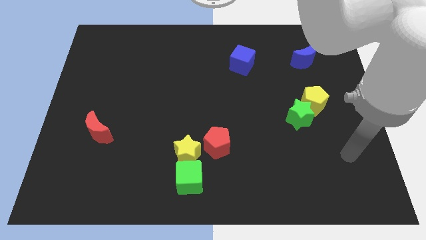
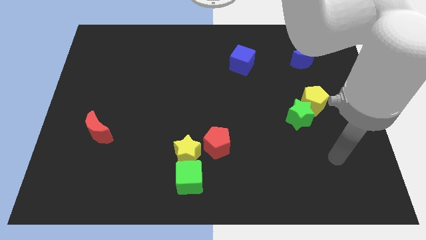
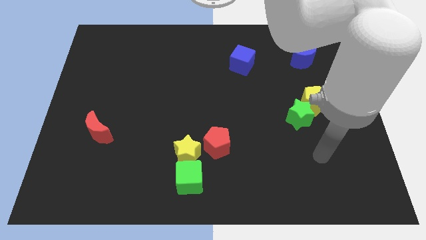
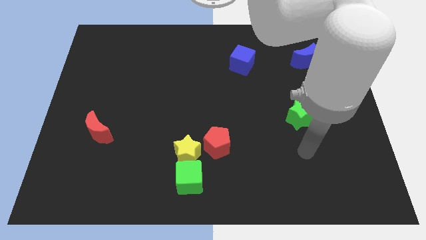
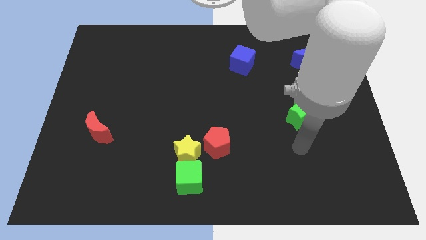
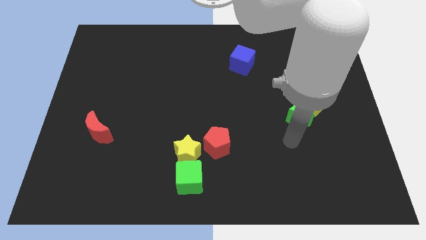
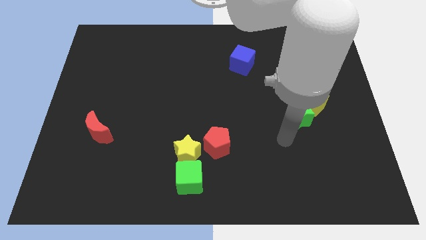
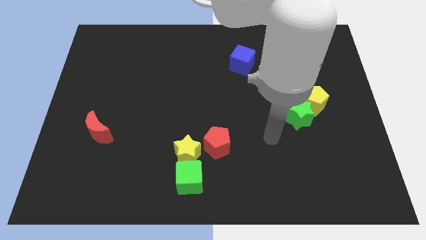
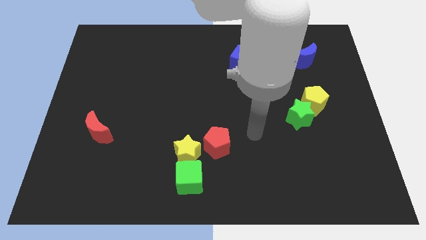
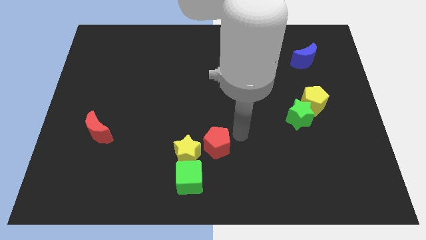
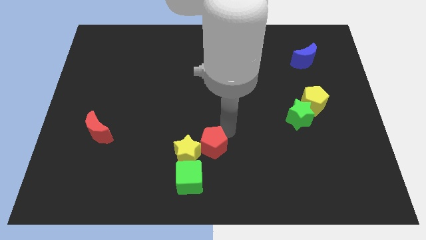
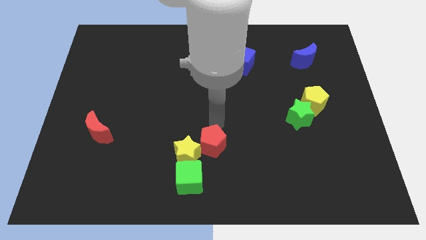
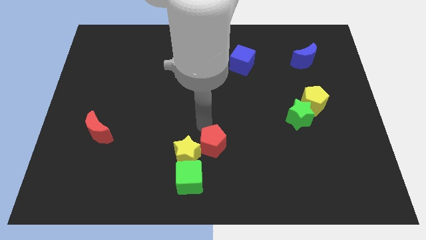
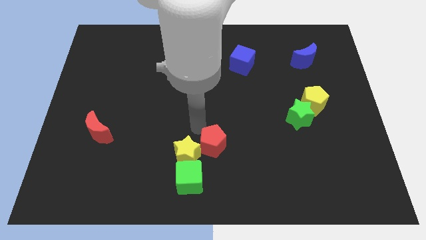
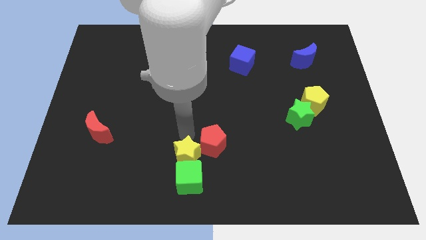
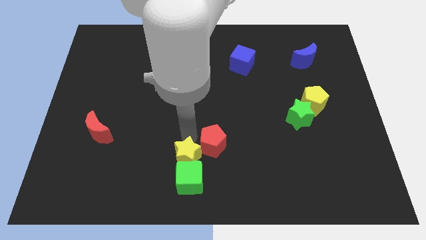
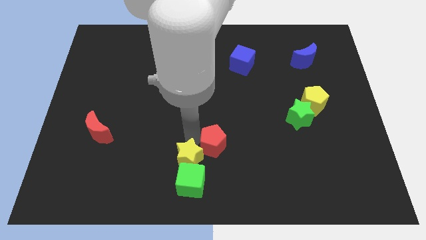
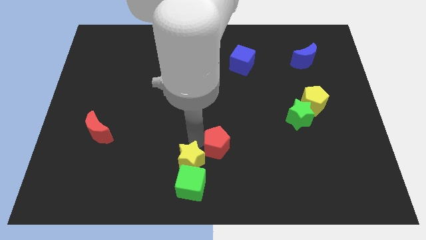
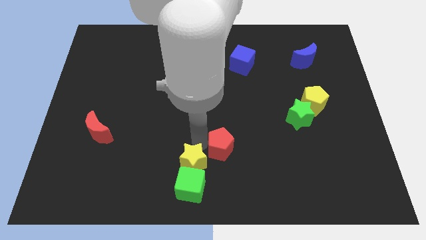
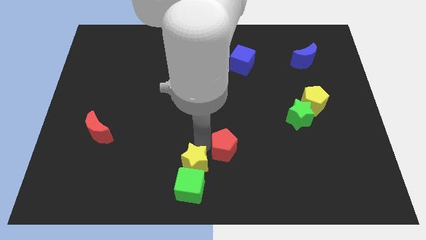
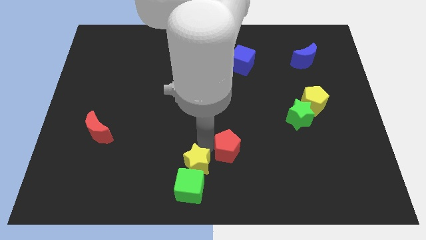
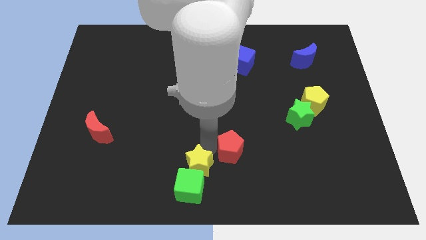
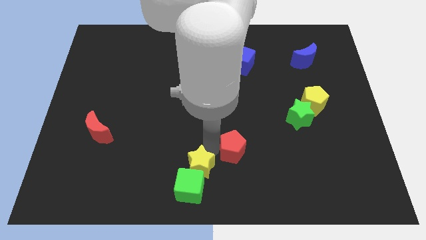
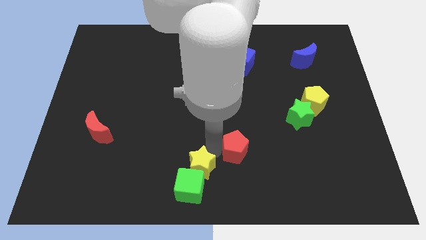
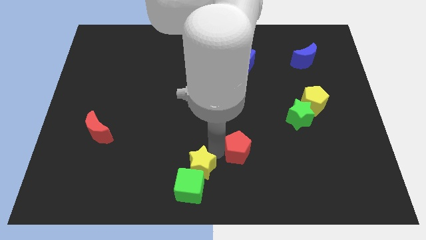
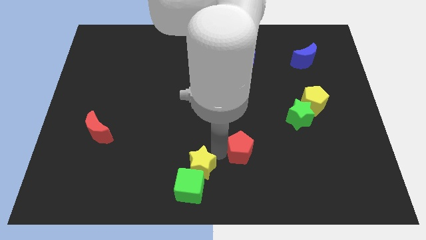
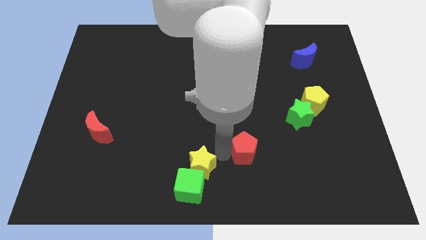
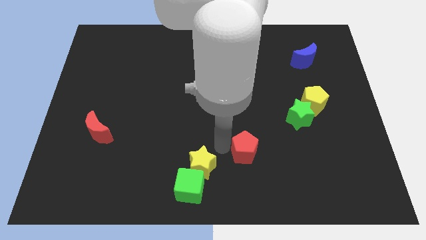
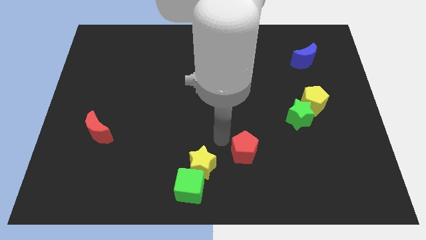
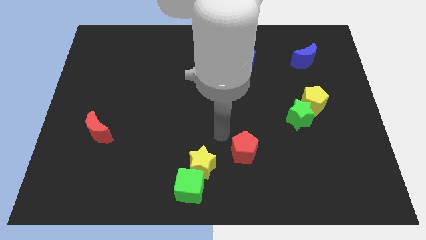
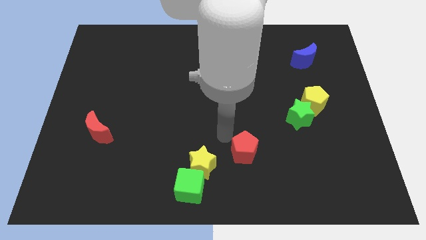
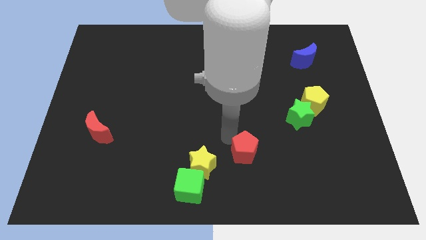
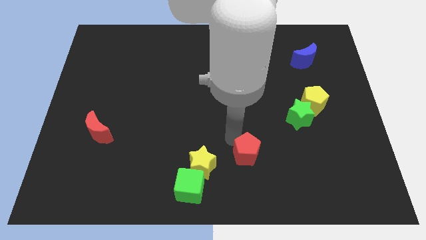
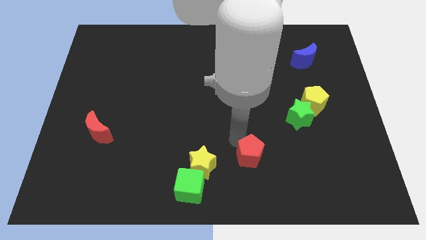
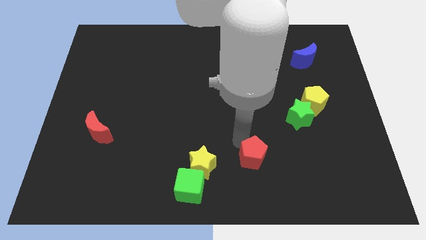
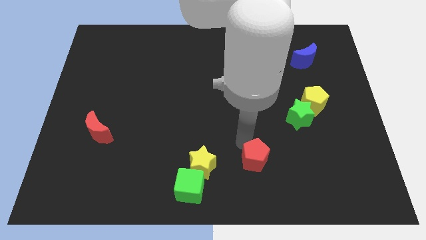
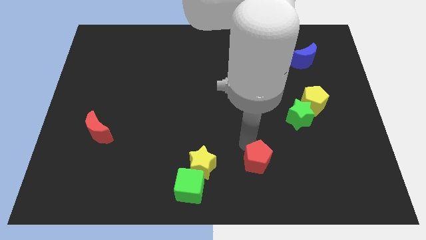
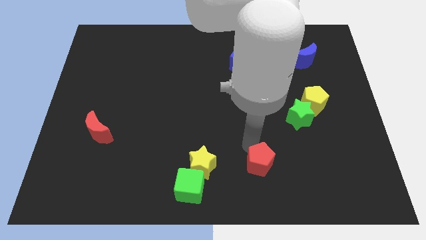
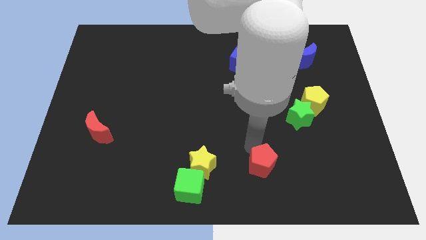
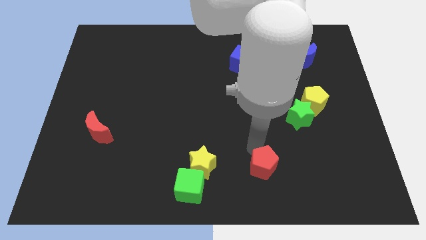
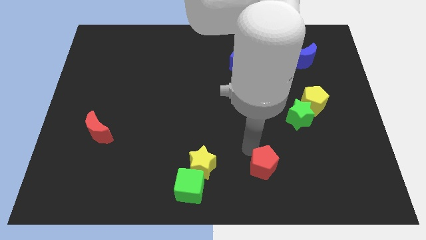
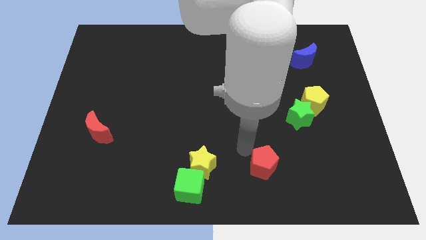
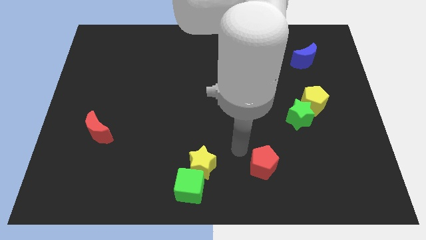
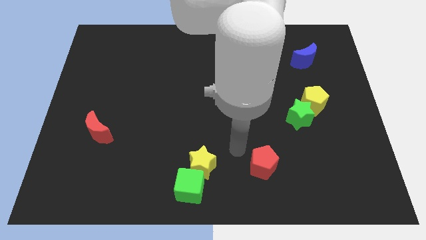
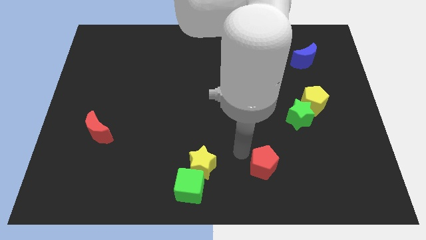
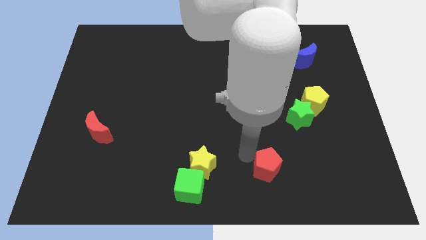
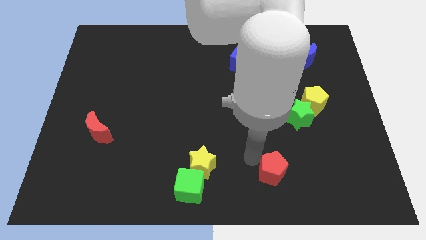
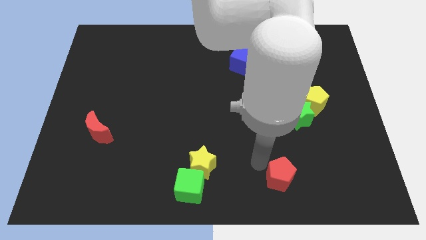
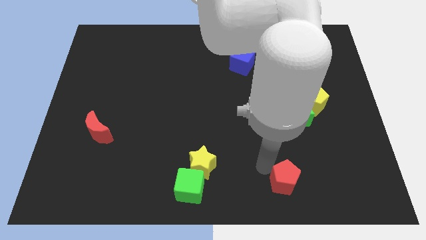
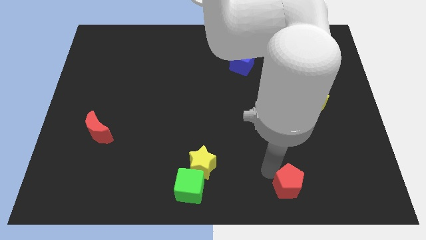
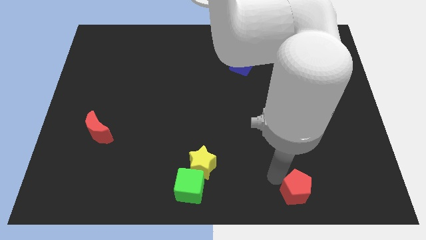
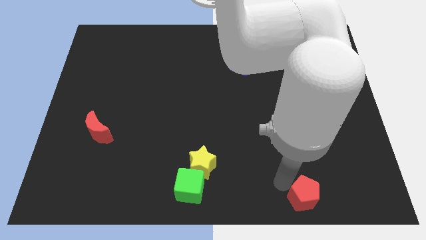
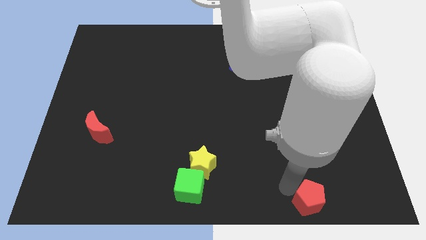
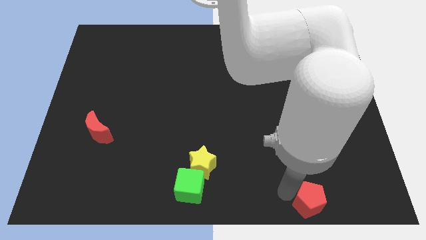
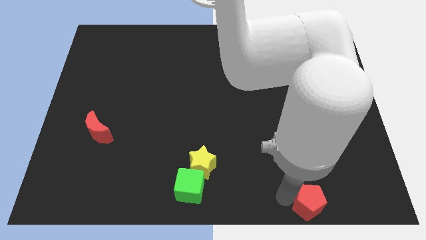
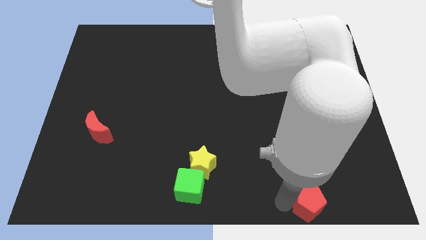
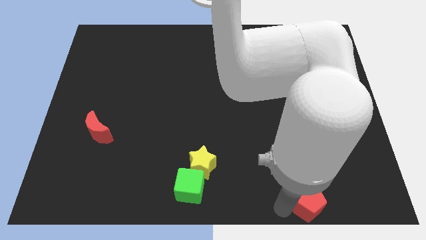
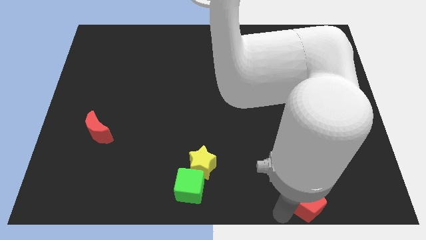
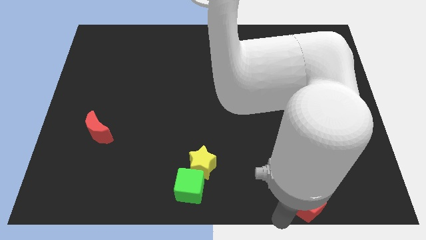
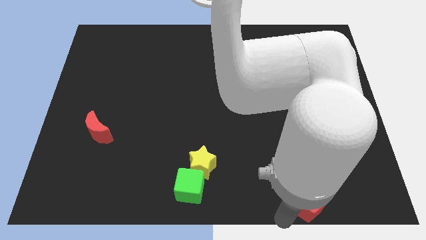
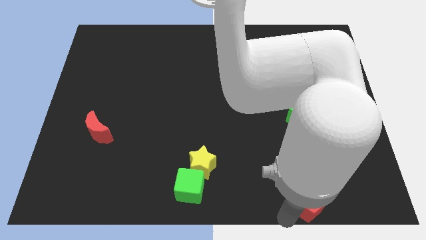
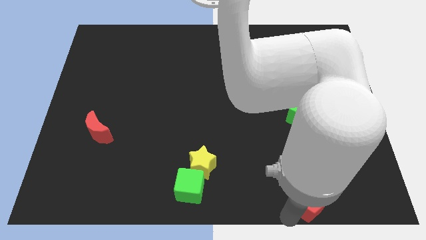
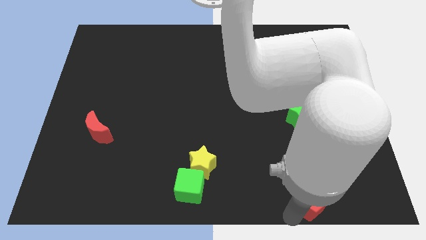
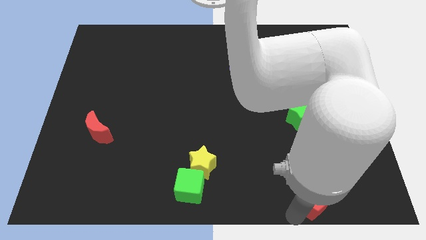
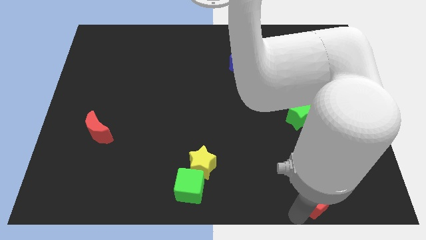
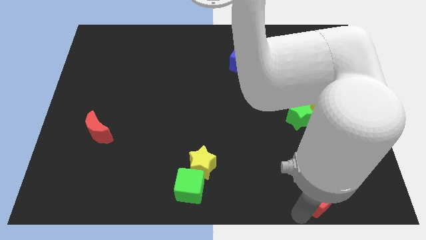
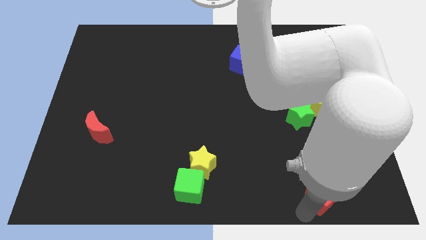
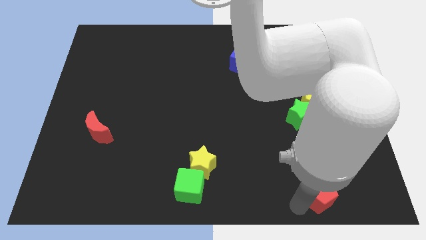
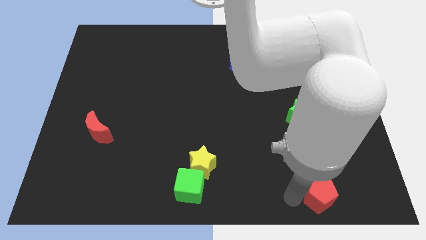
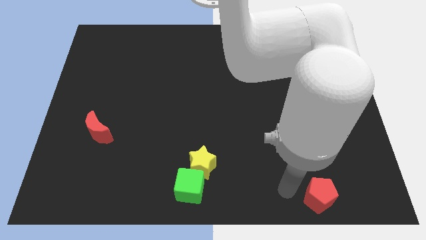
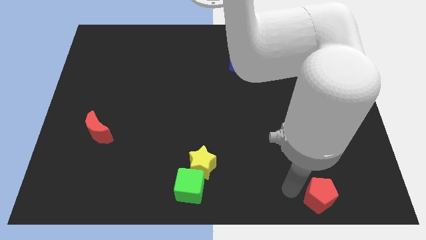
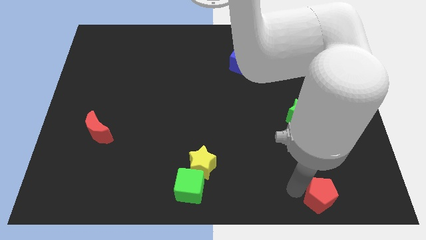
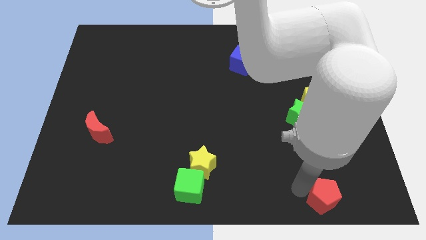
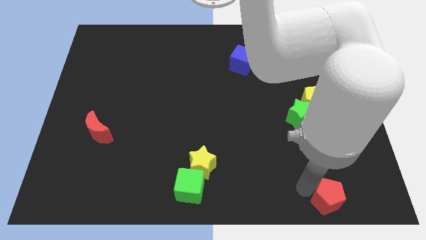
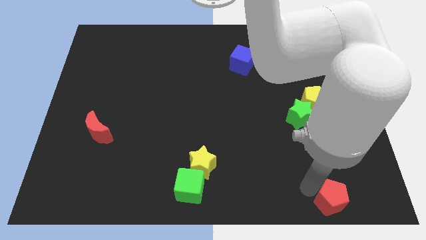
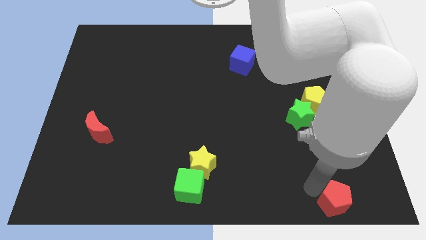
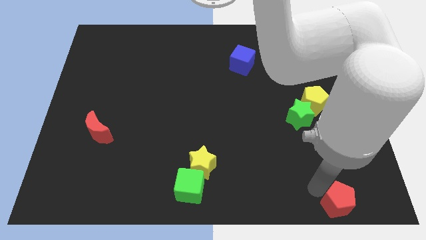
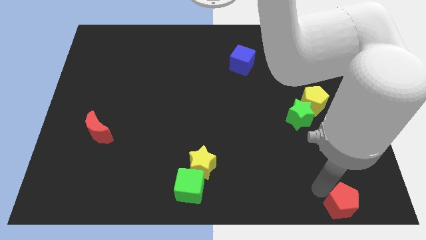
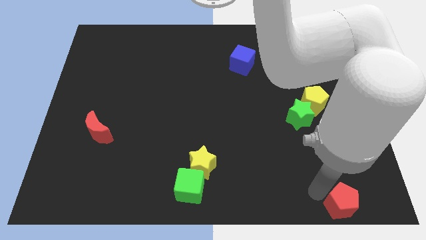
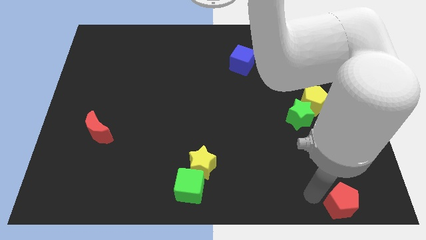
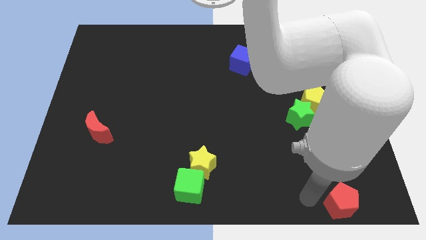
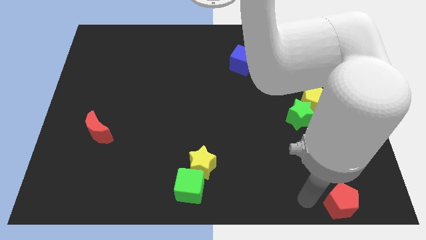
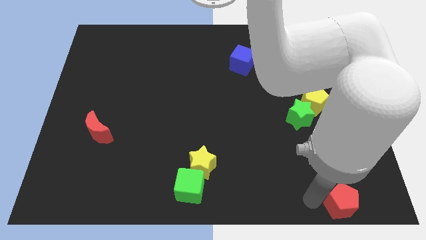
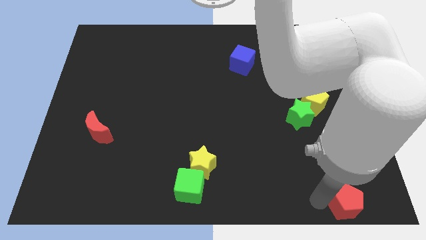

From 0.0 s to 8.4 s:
slide the red pentagon to the bottom right of the board
